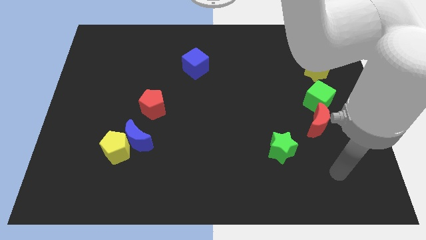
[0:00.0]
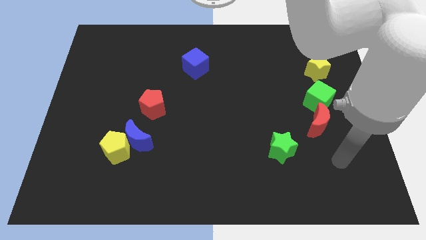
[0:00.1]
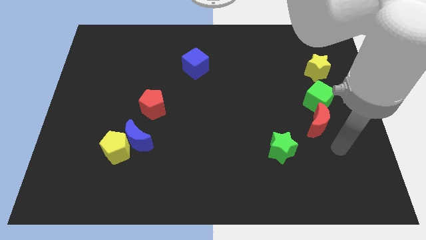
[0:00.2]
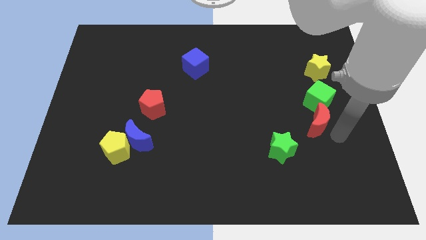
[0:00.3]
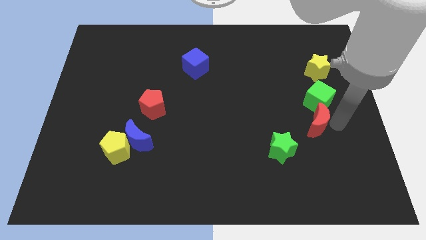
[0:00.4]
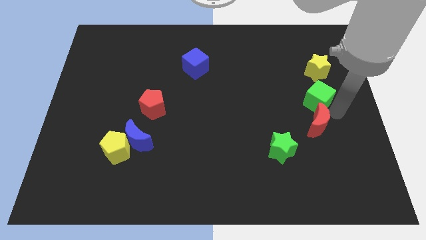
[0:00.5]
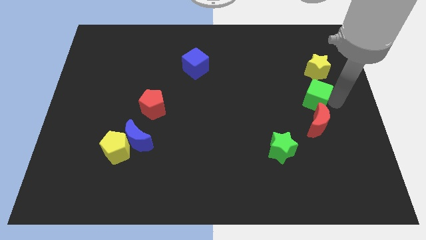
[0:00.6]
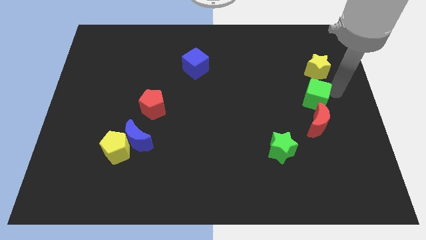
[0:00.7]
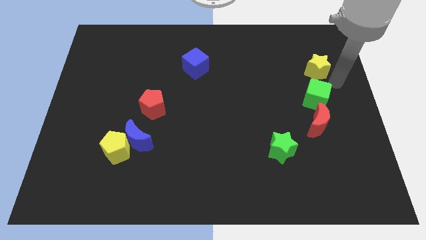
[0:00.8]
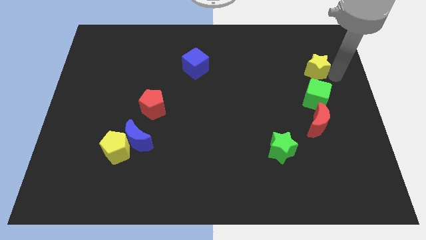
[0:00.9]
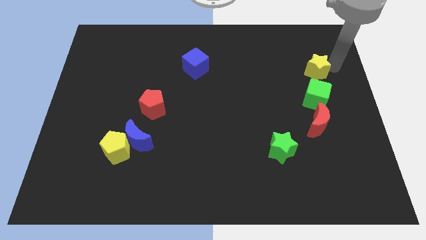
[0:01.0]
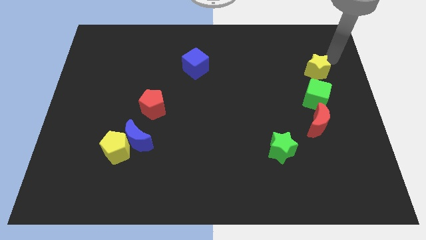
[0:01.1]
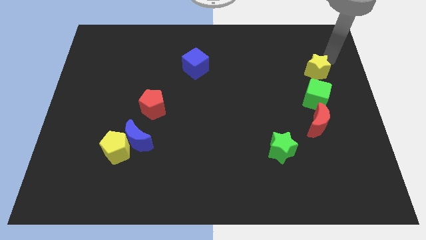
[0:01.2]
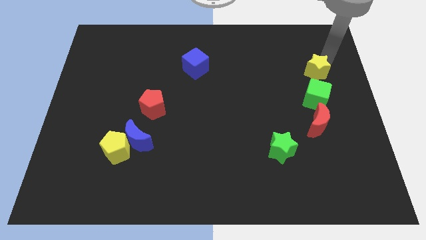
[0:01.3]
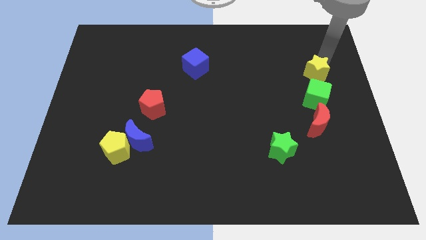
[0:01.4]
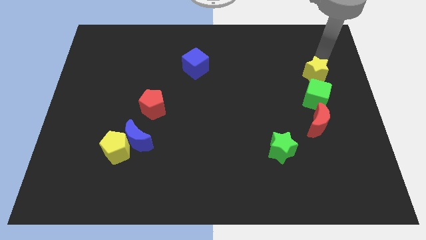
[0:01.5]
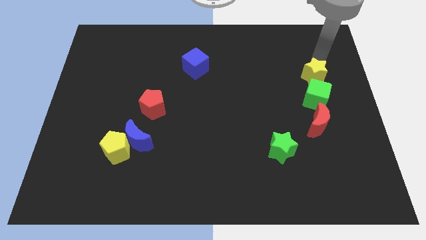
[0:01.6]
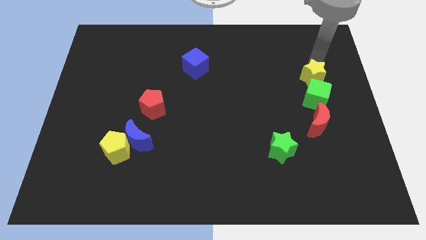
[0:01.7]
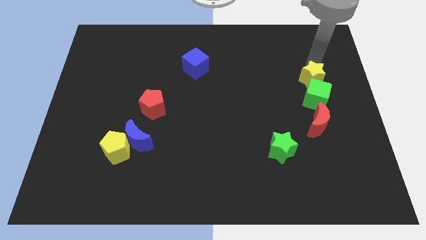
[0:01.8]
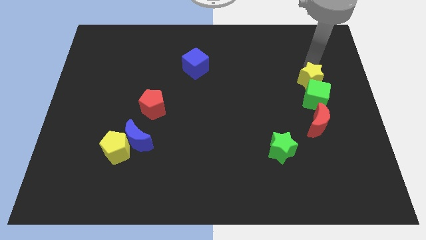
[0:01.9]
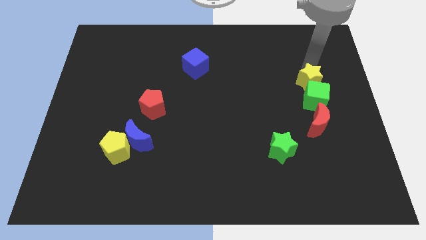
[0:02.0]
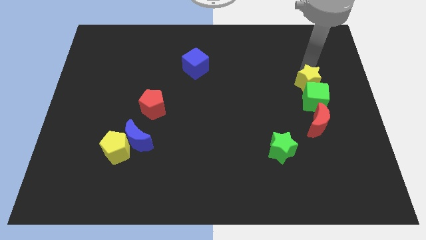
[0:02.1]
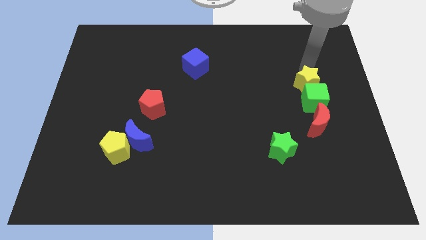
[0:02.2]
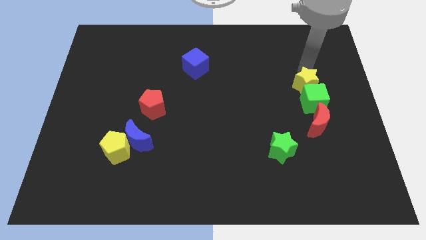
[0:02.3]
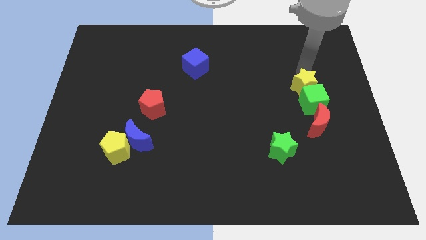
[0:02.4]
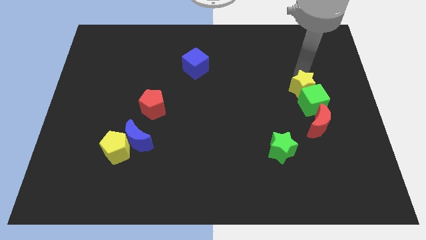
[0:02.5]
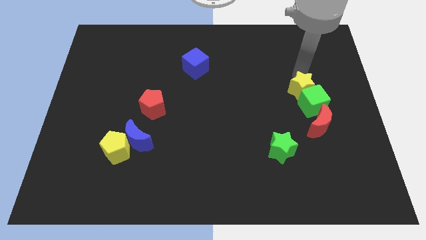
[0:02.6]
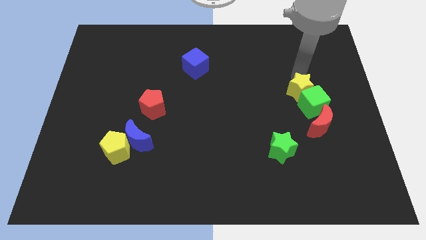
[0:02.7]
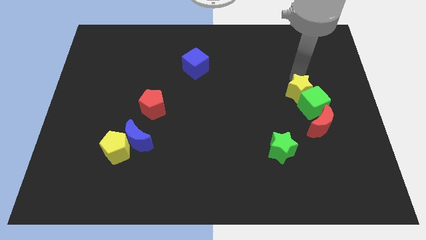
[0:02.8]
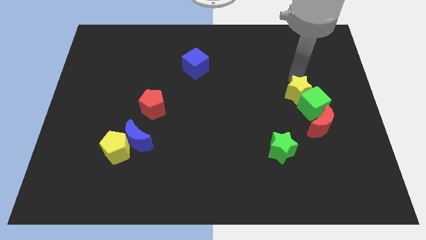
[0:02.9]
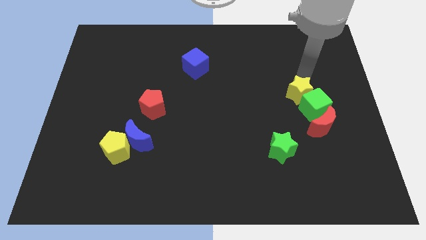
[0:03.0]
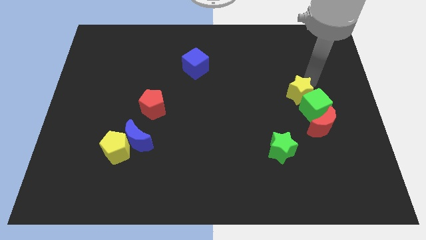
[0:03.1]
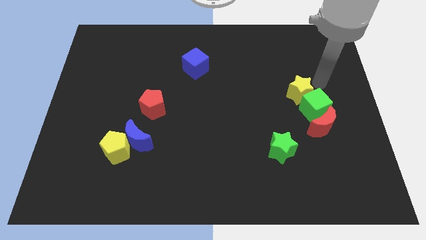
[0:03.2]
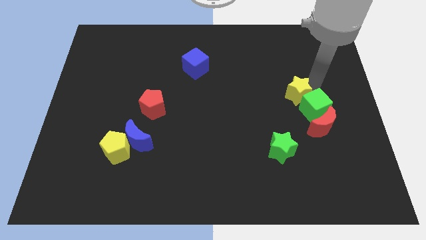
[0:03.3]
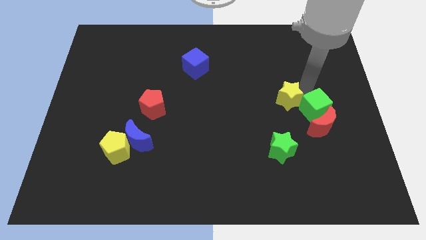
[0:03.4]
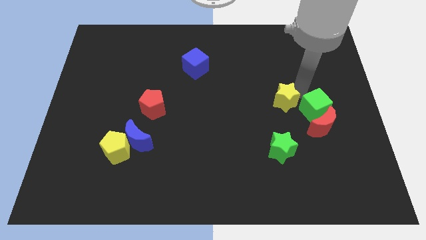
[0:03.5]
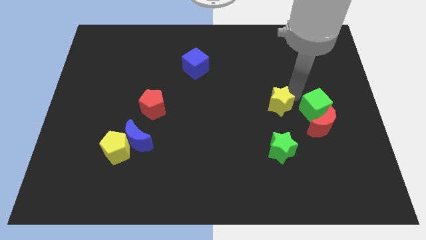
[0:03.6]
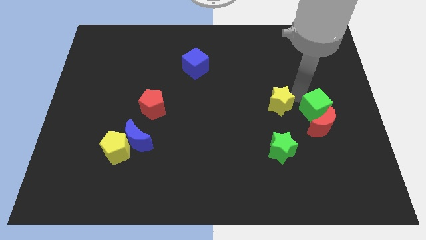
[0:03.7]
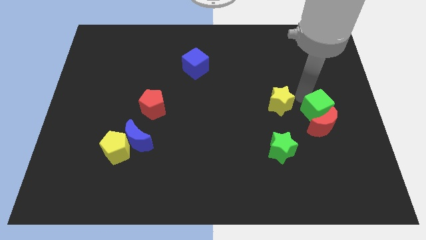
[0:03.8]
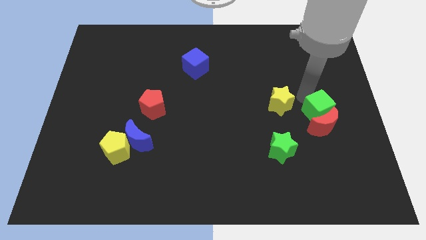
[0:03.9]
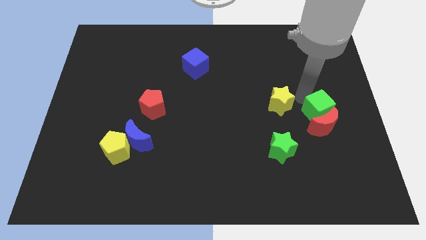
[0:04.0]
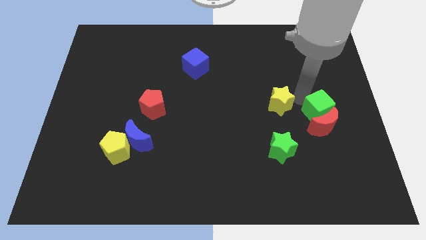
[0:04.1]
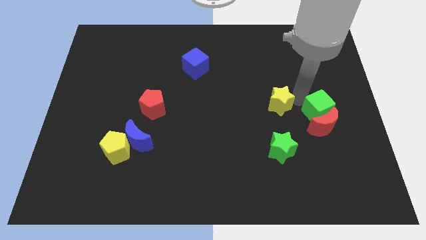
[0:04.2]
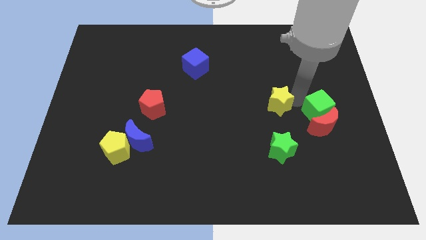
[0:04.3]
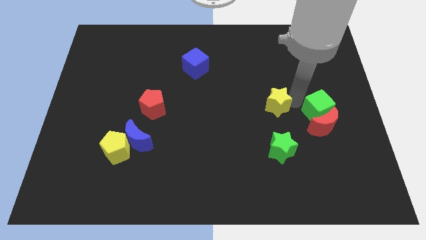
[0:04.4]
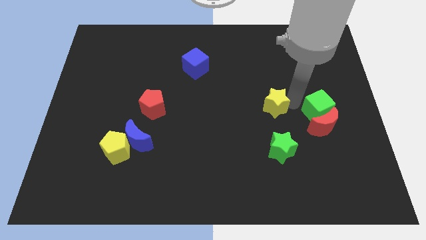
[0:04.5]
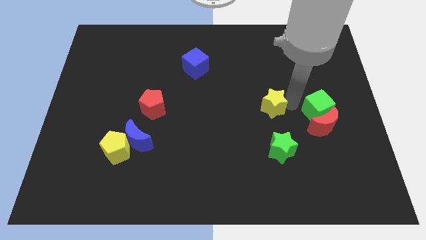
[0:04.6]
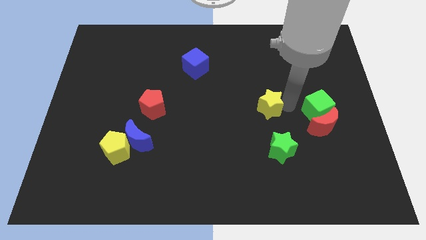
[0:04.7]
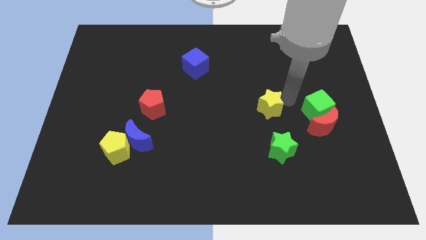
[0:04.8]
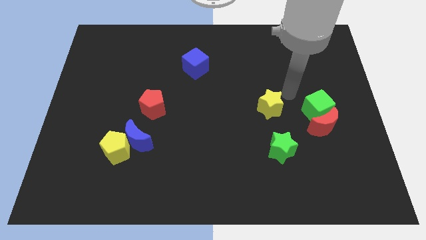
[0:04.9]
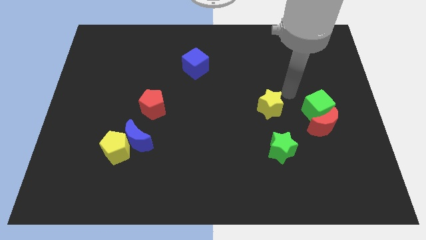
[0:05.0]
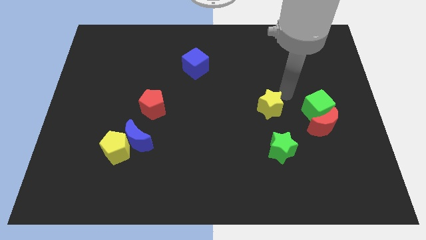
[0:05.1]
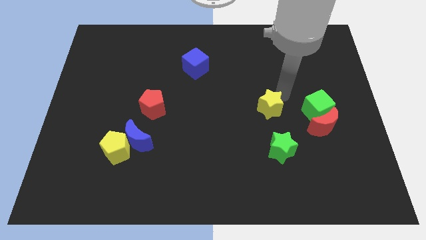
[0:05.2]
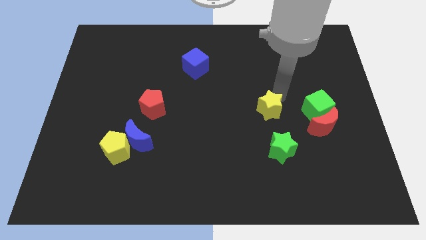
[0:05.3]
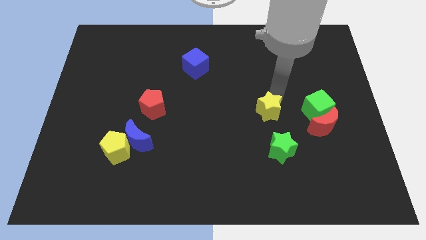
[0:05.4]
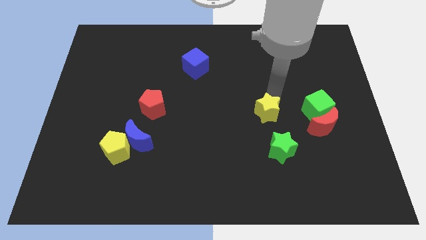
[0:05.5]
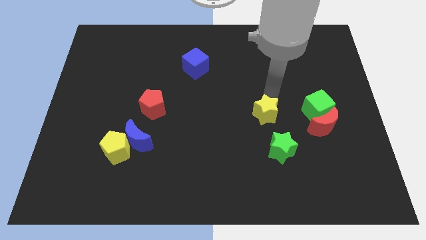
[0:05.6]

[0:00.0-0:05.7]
push the yellow star diagonally downwards and to the left

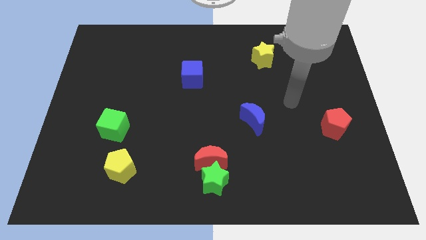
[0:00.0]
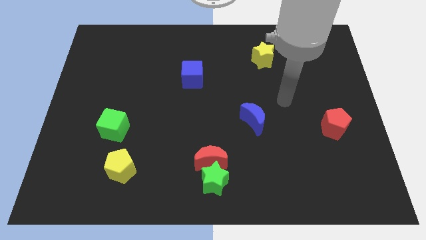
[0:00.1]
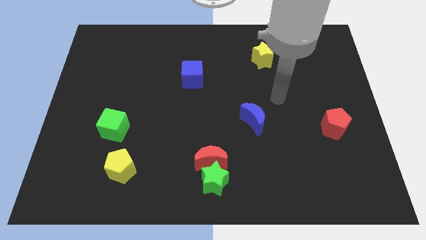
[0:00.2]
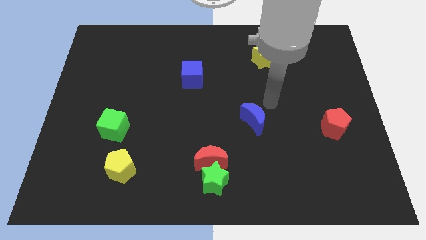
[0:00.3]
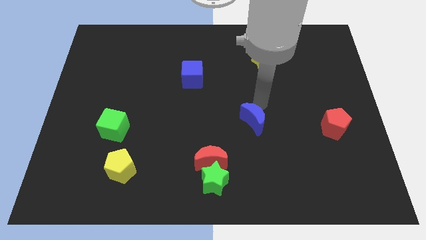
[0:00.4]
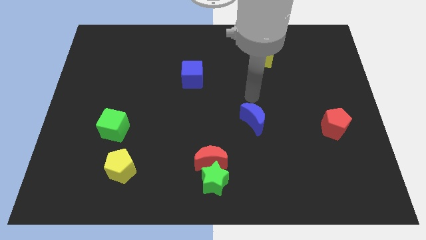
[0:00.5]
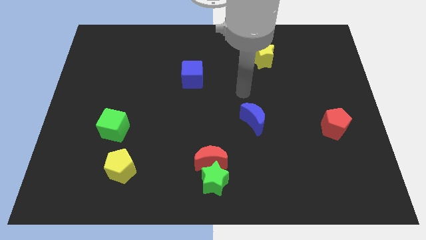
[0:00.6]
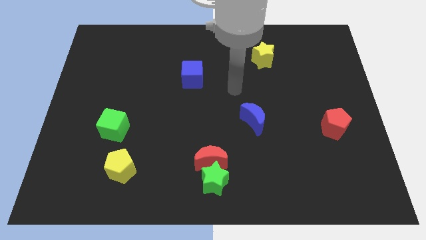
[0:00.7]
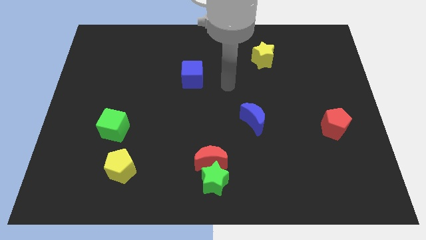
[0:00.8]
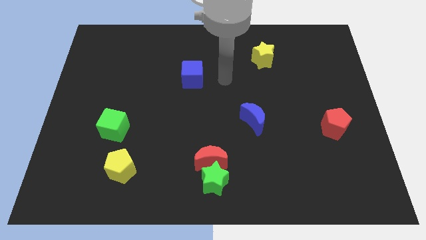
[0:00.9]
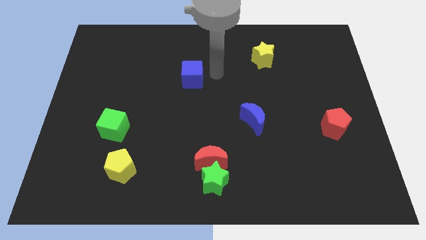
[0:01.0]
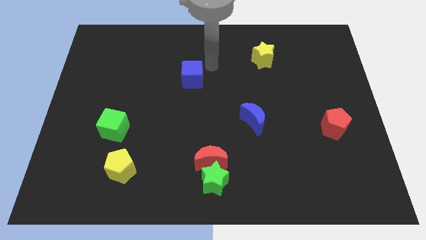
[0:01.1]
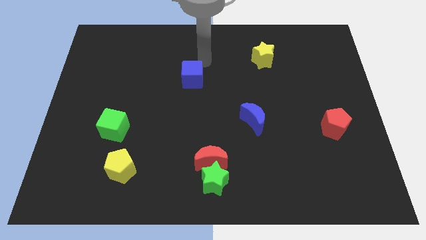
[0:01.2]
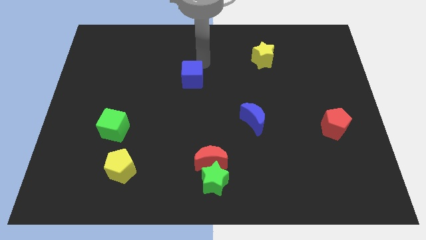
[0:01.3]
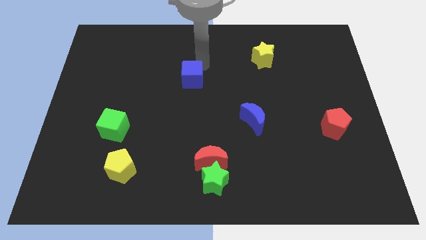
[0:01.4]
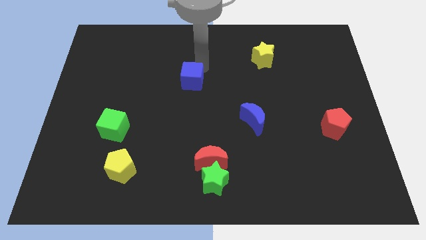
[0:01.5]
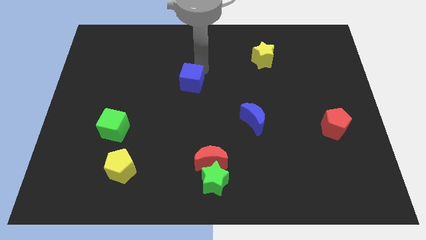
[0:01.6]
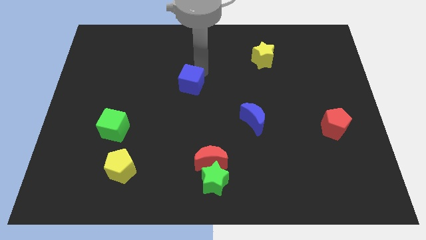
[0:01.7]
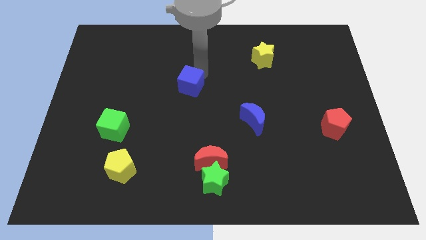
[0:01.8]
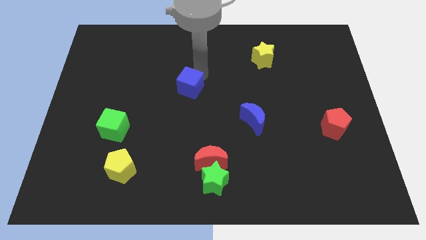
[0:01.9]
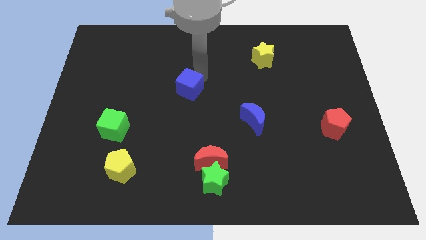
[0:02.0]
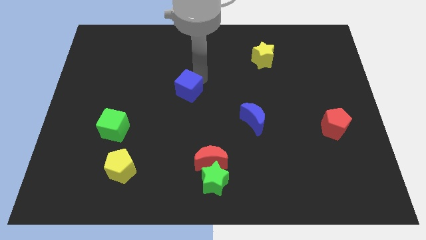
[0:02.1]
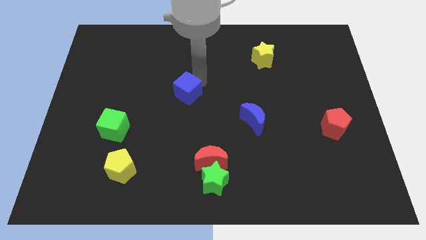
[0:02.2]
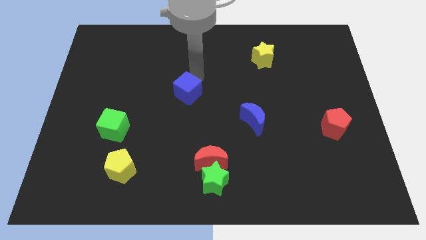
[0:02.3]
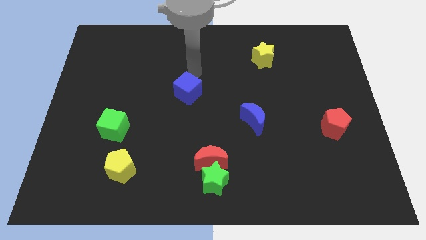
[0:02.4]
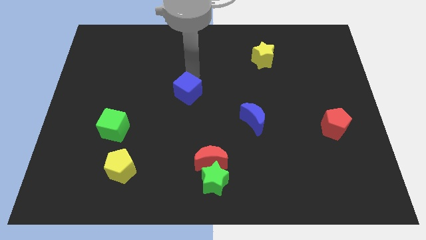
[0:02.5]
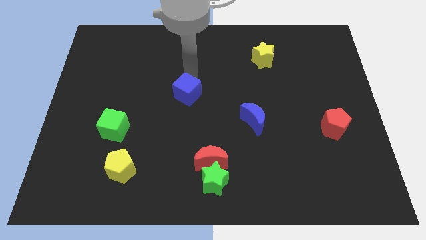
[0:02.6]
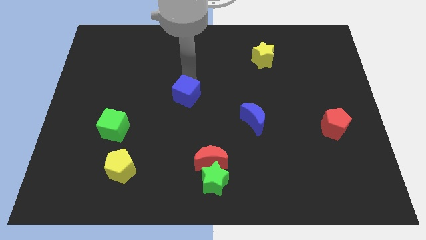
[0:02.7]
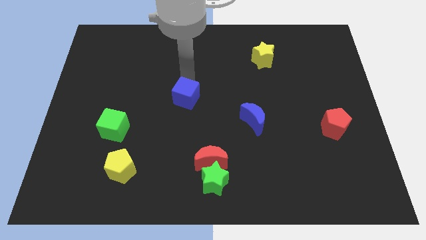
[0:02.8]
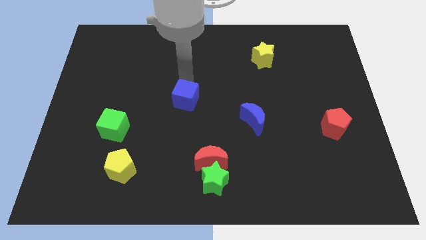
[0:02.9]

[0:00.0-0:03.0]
slightly slide the blue cube downwards
